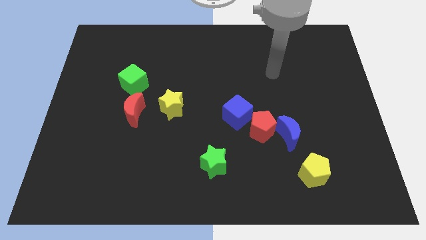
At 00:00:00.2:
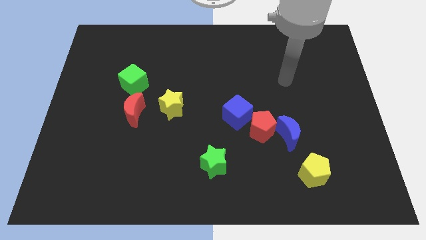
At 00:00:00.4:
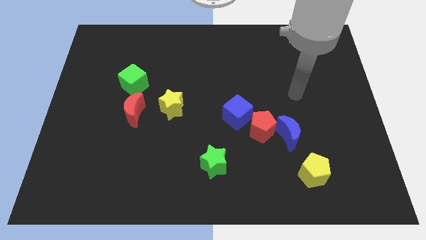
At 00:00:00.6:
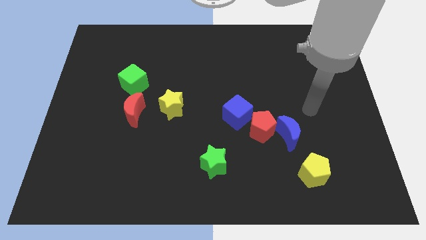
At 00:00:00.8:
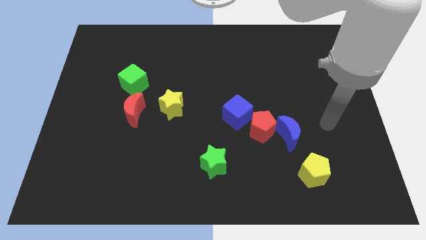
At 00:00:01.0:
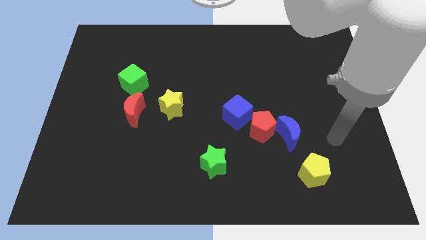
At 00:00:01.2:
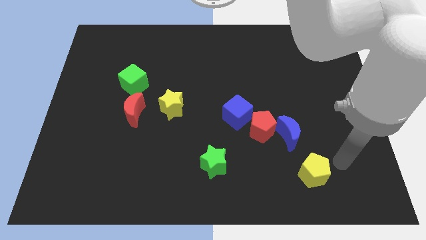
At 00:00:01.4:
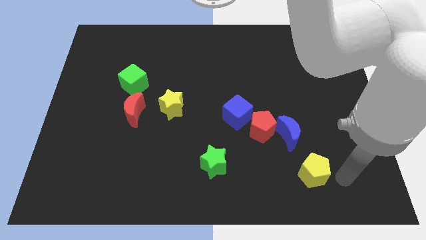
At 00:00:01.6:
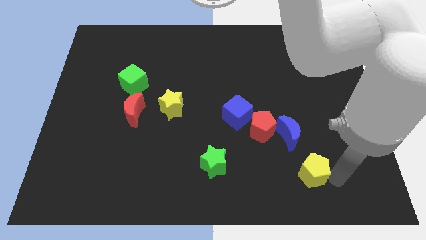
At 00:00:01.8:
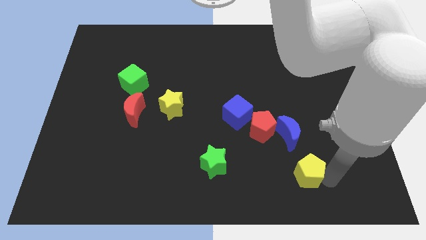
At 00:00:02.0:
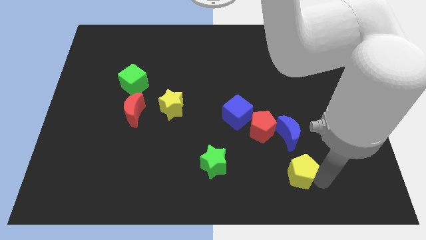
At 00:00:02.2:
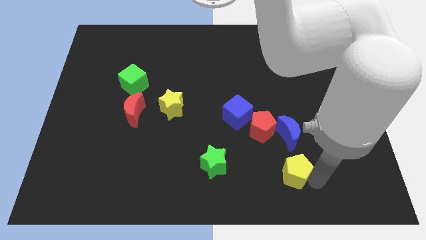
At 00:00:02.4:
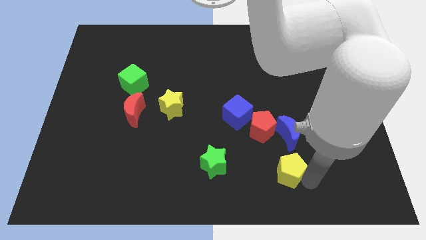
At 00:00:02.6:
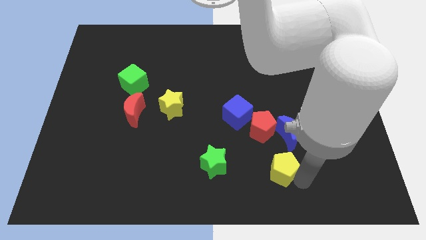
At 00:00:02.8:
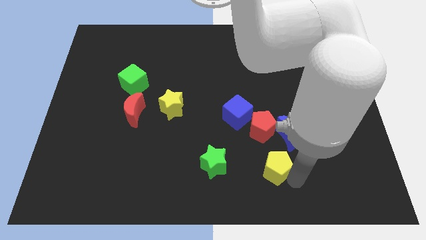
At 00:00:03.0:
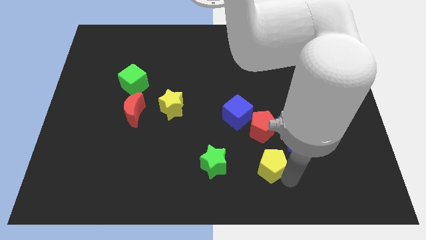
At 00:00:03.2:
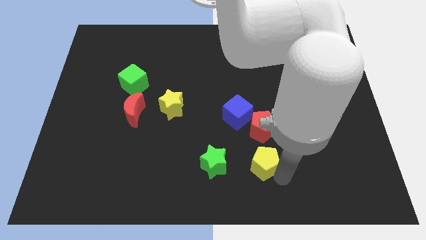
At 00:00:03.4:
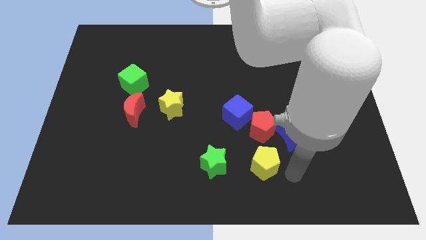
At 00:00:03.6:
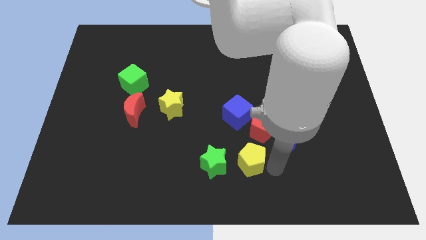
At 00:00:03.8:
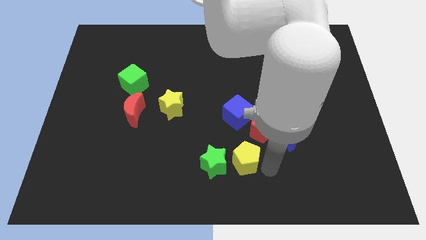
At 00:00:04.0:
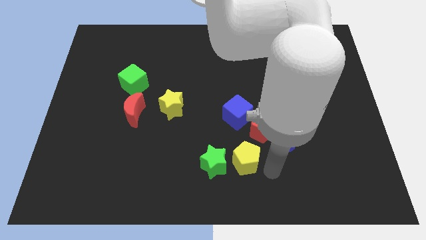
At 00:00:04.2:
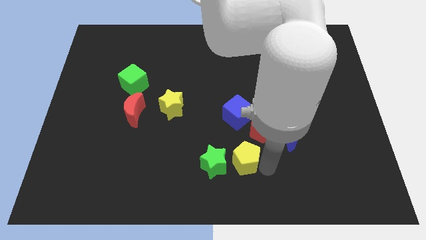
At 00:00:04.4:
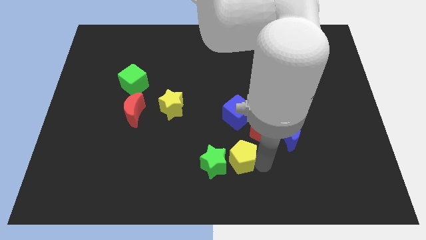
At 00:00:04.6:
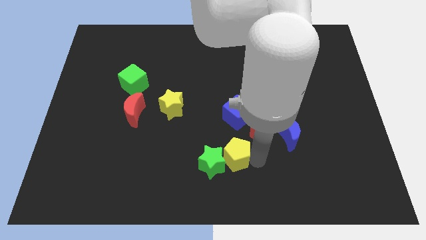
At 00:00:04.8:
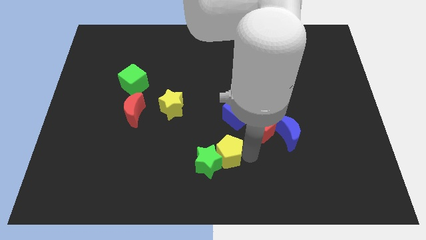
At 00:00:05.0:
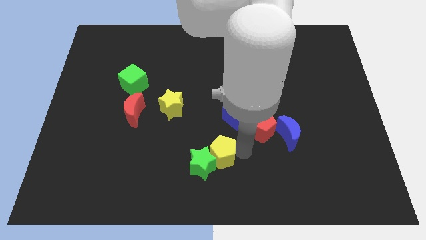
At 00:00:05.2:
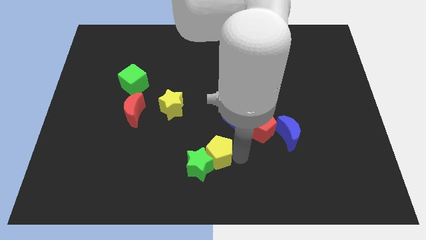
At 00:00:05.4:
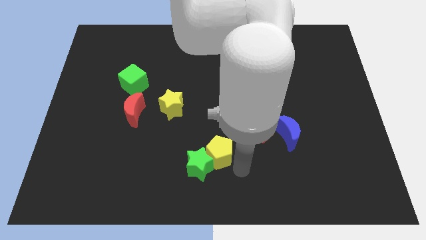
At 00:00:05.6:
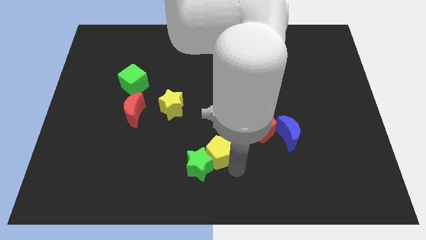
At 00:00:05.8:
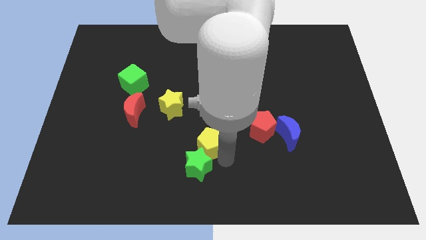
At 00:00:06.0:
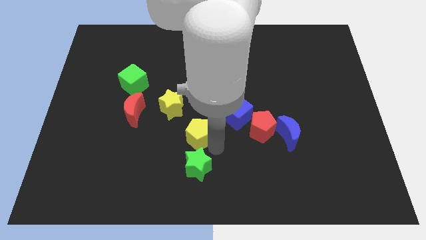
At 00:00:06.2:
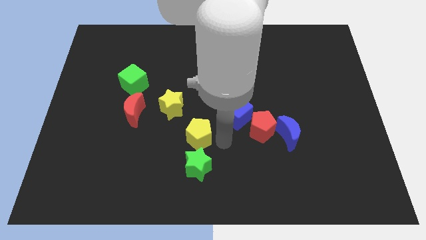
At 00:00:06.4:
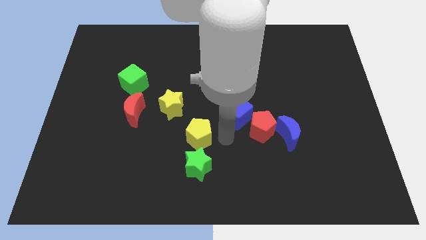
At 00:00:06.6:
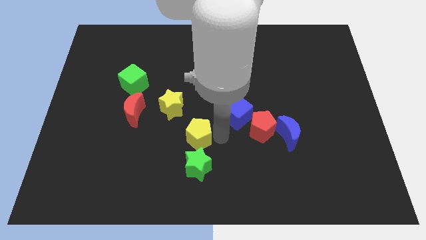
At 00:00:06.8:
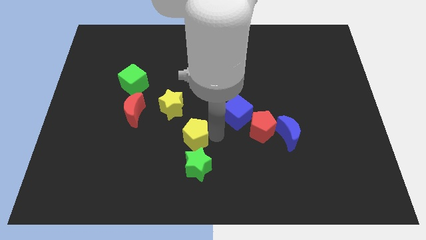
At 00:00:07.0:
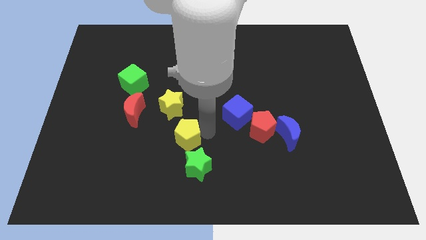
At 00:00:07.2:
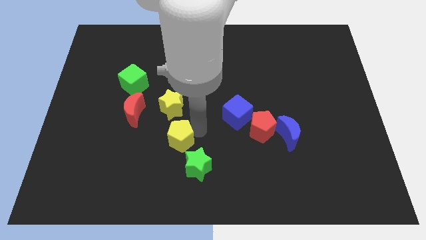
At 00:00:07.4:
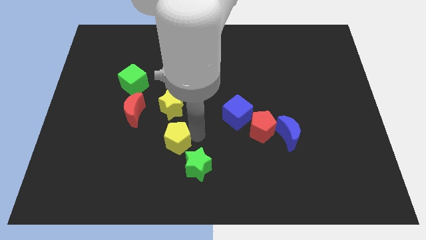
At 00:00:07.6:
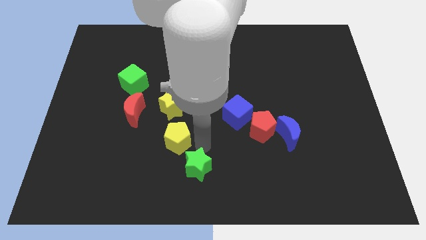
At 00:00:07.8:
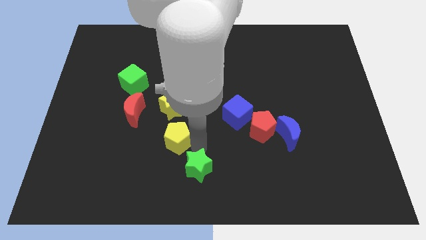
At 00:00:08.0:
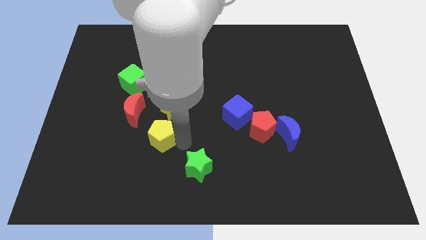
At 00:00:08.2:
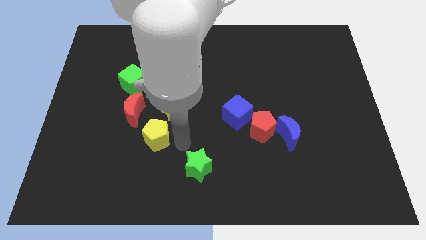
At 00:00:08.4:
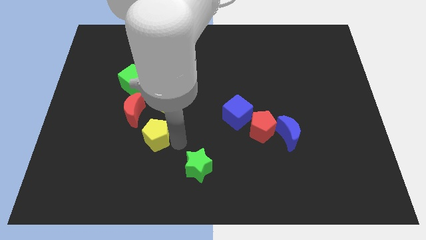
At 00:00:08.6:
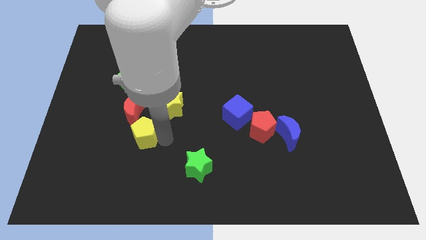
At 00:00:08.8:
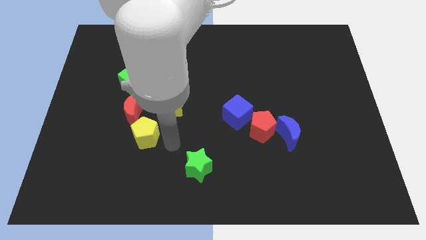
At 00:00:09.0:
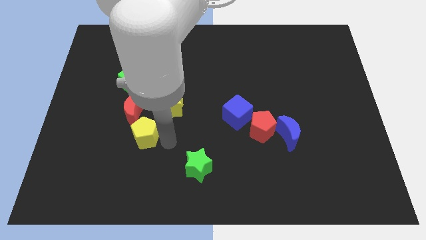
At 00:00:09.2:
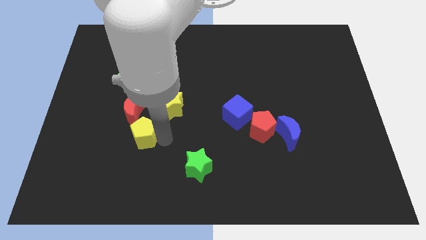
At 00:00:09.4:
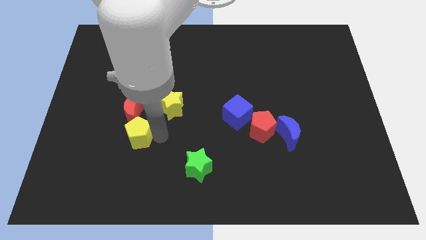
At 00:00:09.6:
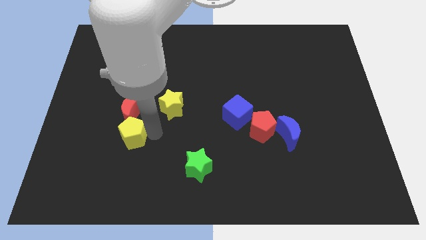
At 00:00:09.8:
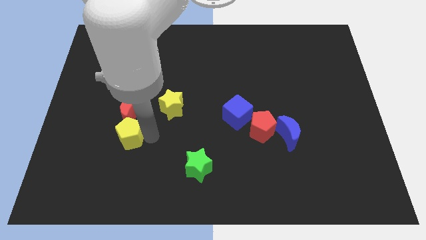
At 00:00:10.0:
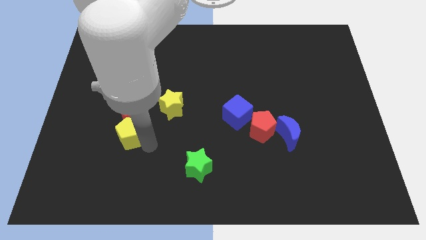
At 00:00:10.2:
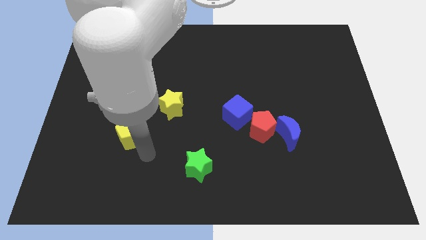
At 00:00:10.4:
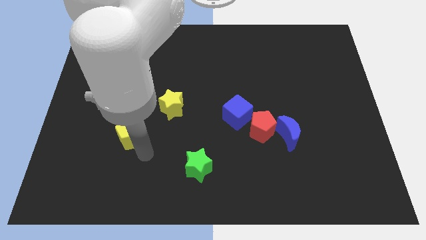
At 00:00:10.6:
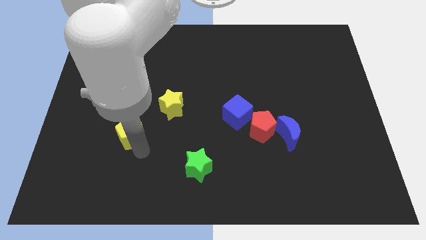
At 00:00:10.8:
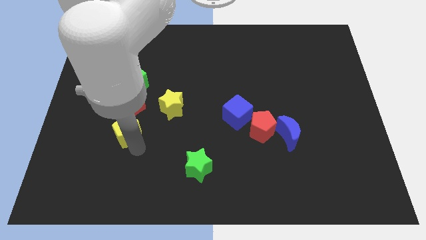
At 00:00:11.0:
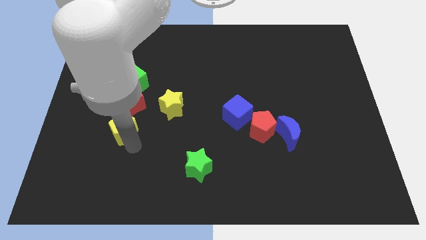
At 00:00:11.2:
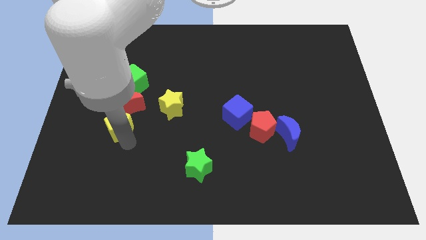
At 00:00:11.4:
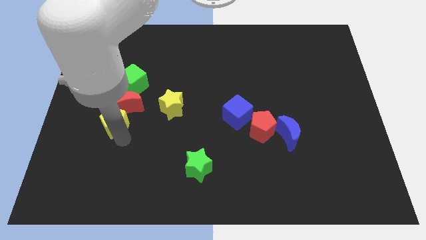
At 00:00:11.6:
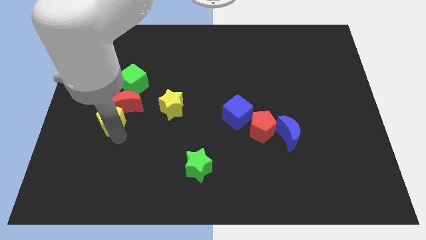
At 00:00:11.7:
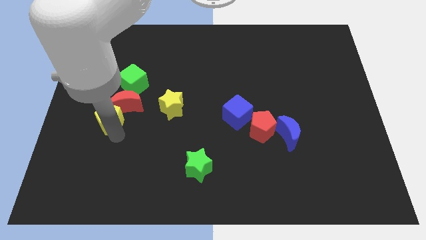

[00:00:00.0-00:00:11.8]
put the yellow pentagon to the left of the red moon

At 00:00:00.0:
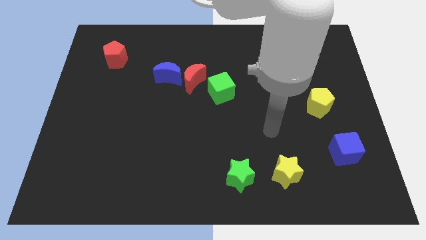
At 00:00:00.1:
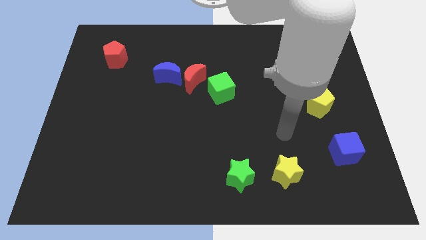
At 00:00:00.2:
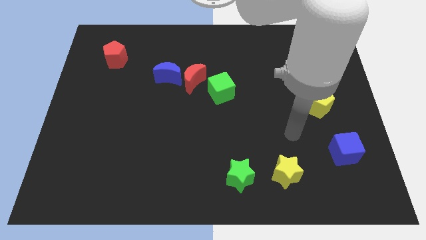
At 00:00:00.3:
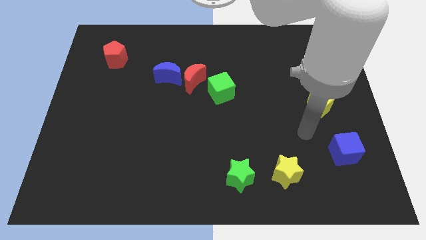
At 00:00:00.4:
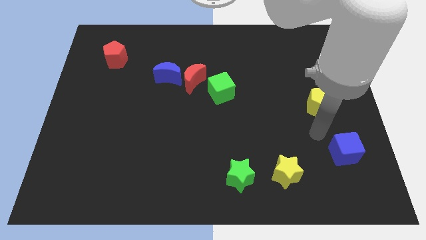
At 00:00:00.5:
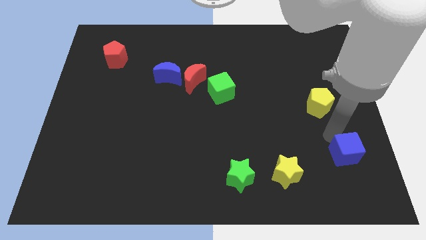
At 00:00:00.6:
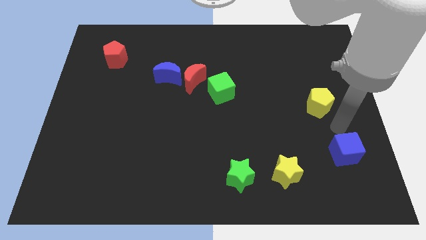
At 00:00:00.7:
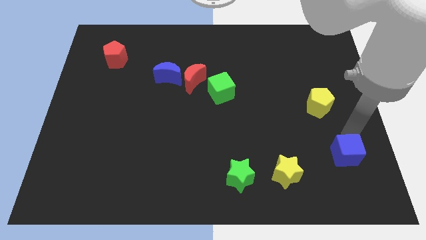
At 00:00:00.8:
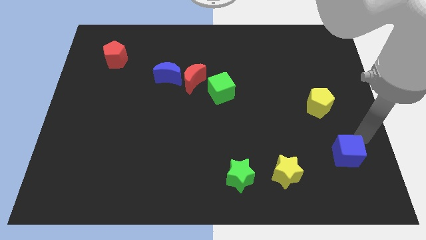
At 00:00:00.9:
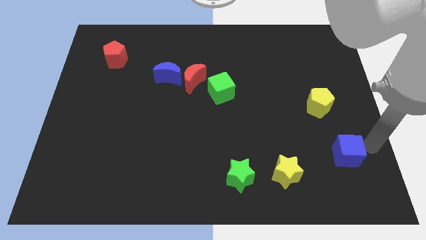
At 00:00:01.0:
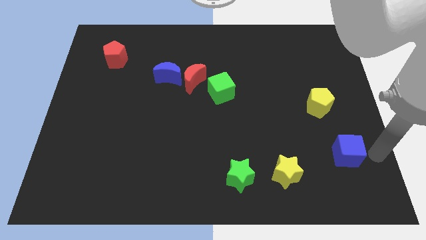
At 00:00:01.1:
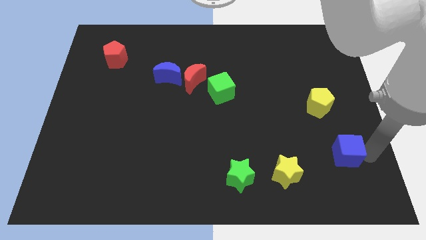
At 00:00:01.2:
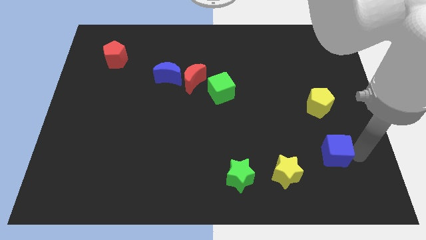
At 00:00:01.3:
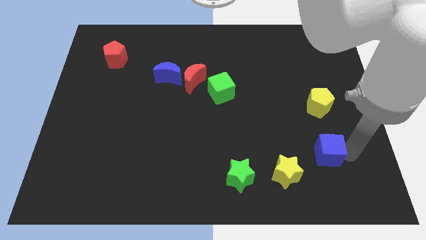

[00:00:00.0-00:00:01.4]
move the blue cube diagonally up and to the right of the yellow star
